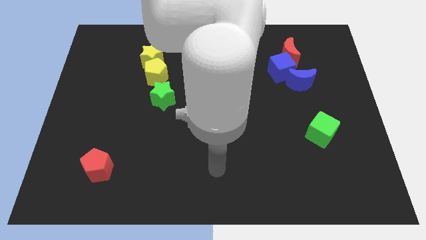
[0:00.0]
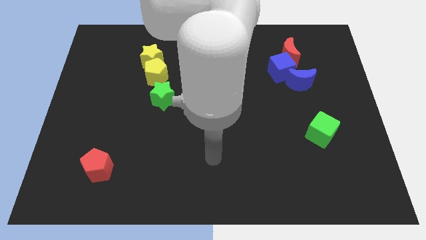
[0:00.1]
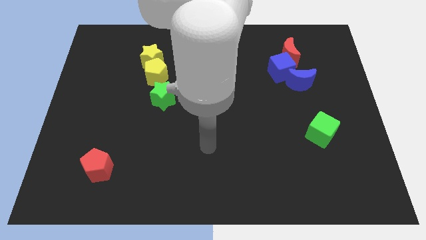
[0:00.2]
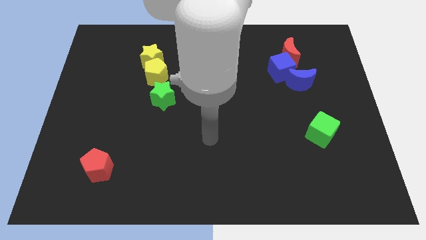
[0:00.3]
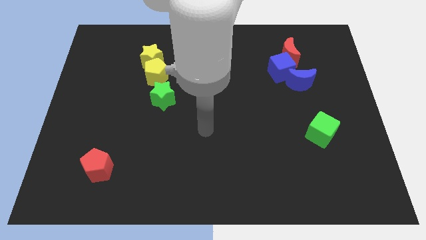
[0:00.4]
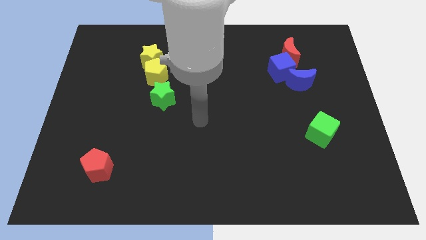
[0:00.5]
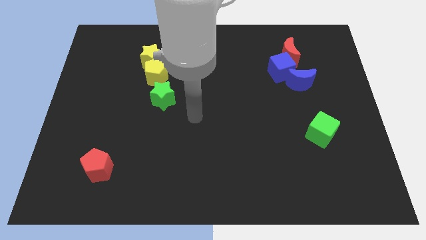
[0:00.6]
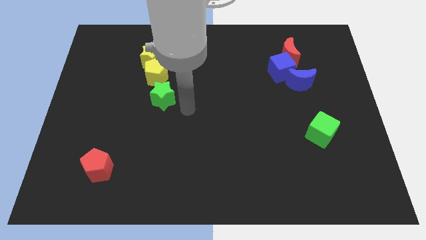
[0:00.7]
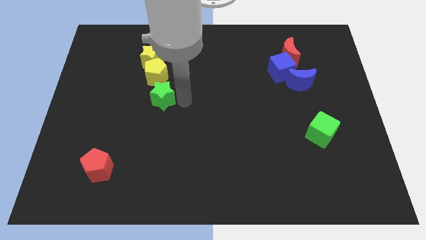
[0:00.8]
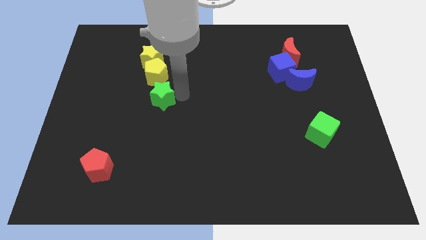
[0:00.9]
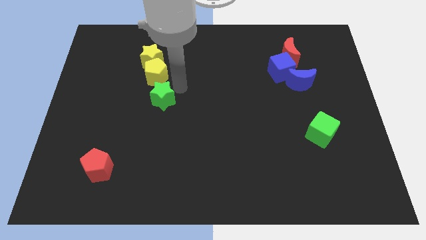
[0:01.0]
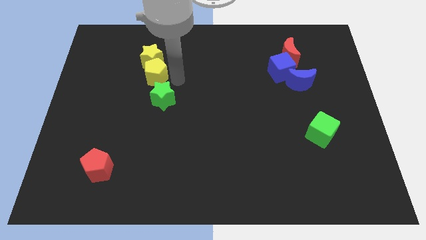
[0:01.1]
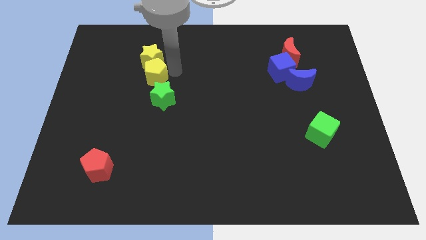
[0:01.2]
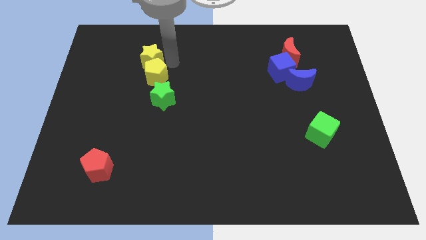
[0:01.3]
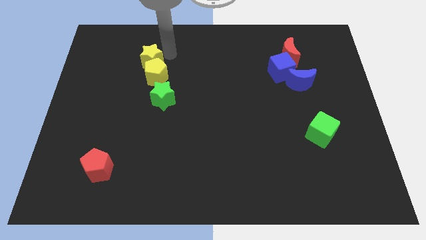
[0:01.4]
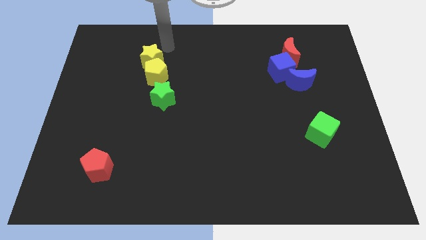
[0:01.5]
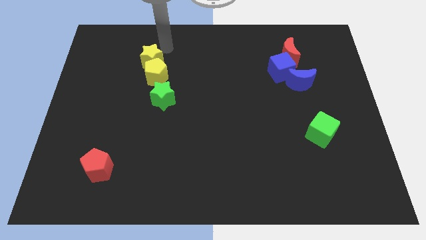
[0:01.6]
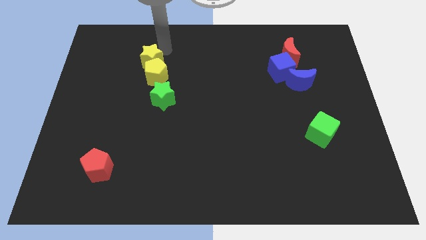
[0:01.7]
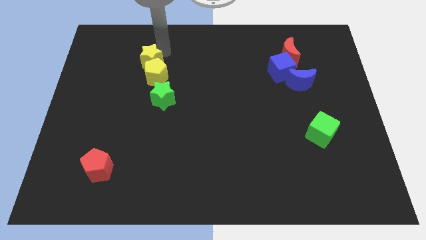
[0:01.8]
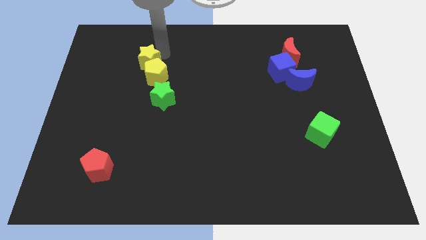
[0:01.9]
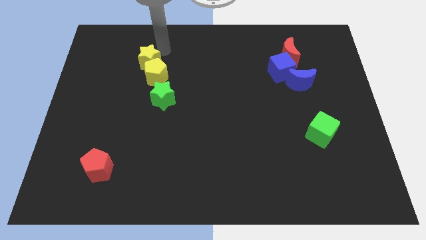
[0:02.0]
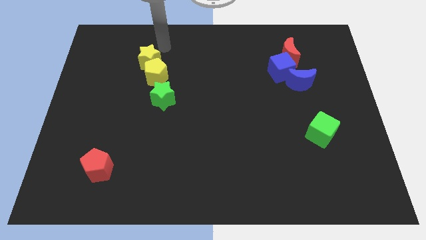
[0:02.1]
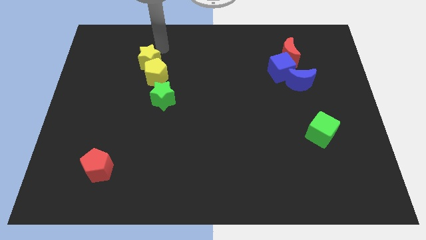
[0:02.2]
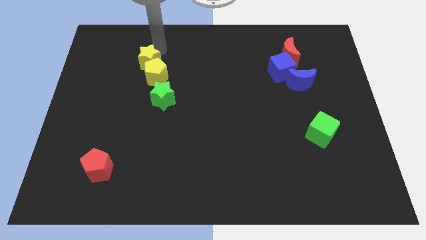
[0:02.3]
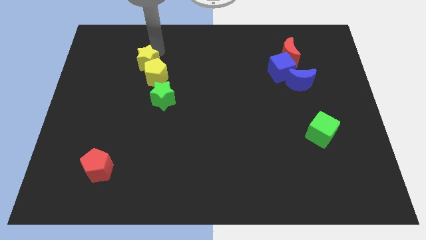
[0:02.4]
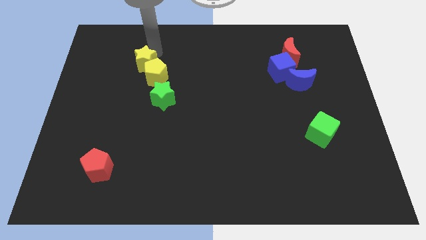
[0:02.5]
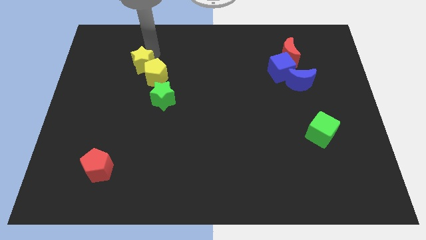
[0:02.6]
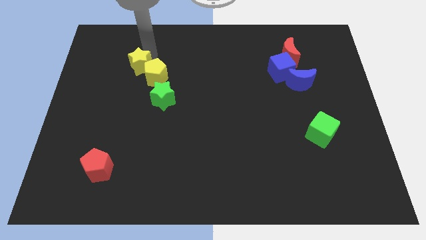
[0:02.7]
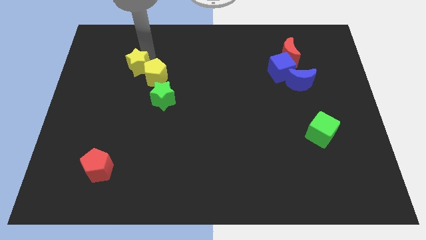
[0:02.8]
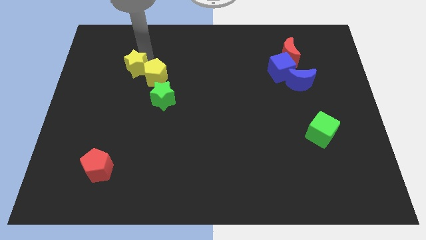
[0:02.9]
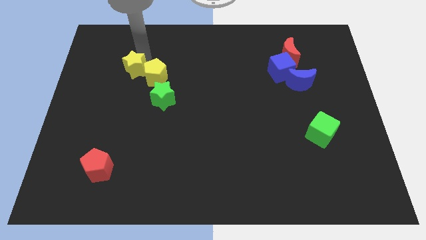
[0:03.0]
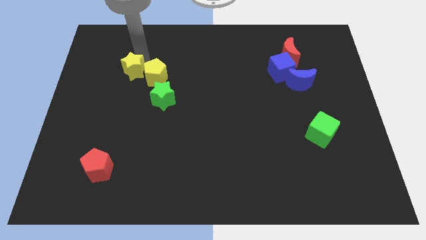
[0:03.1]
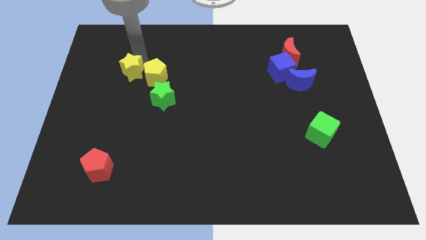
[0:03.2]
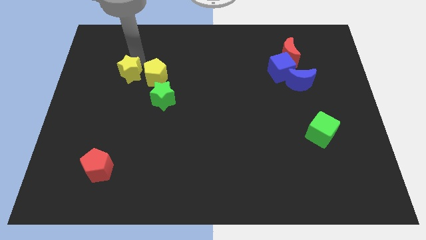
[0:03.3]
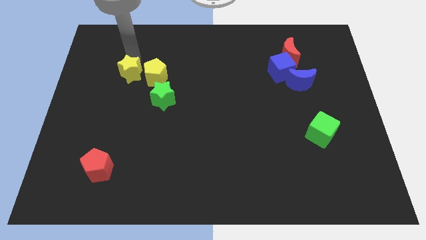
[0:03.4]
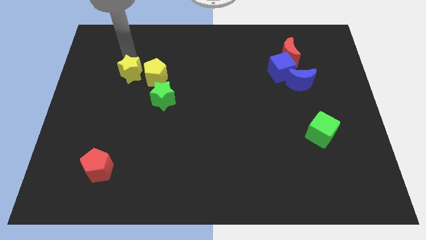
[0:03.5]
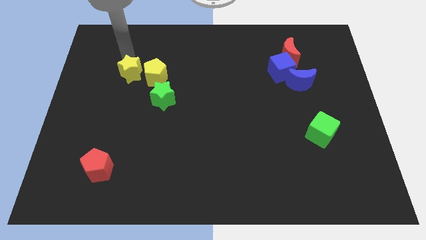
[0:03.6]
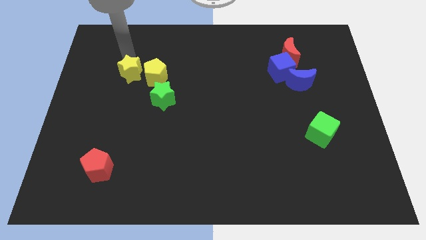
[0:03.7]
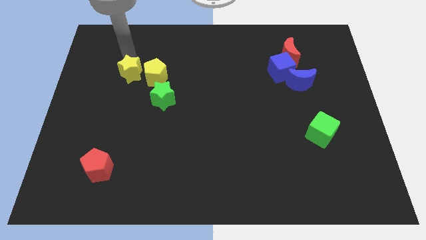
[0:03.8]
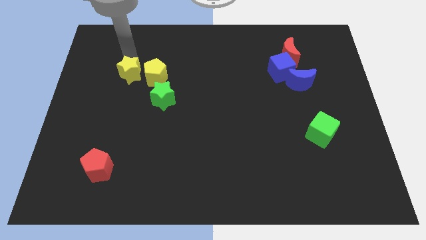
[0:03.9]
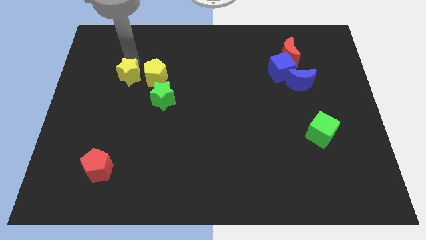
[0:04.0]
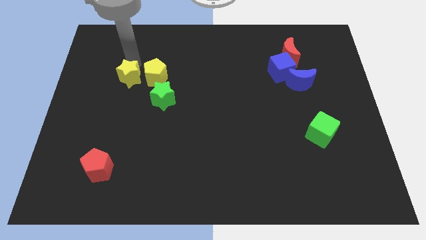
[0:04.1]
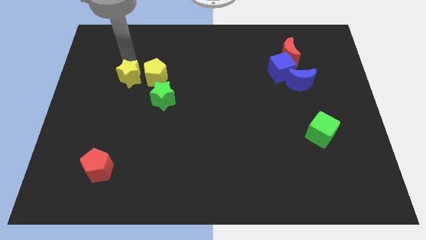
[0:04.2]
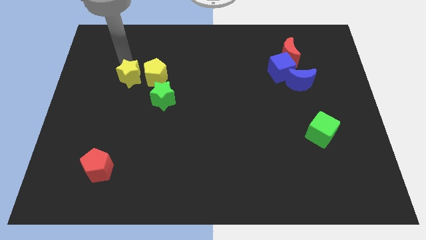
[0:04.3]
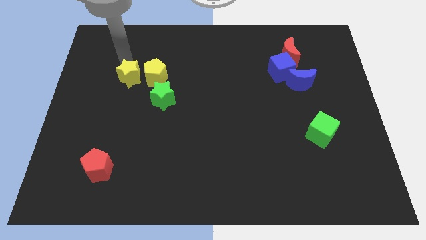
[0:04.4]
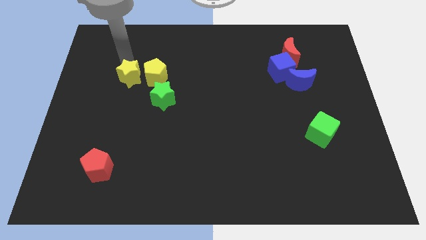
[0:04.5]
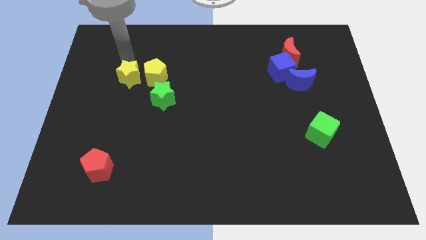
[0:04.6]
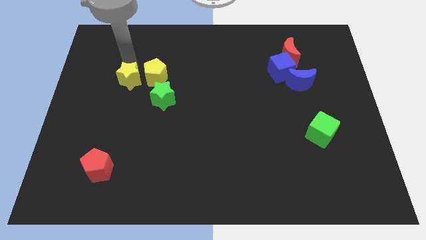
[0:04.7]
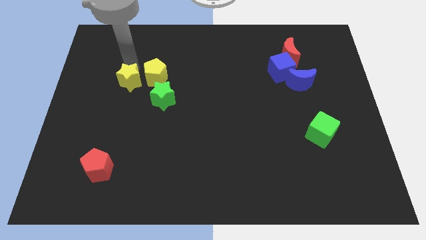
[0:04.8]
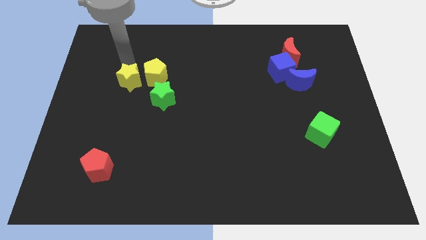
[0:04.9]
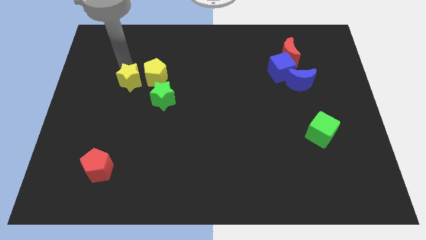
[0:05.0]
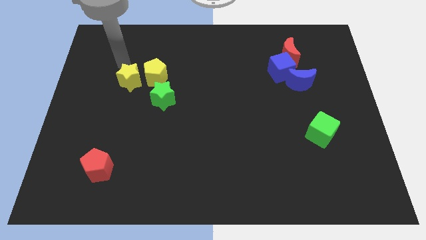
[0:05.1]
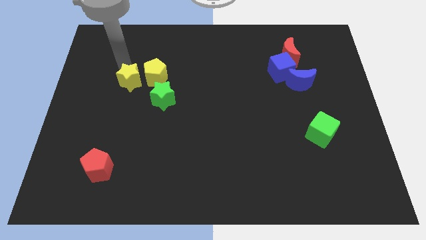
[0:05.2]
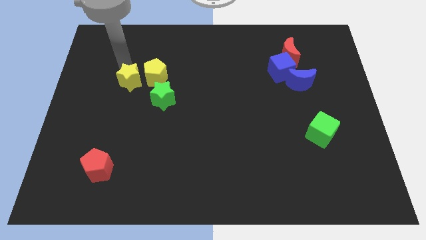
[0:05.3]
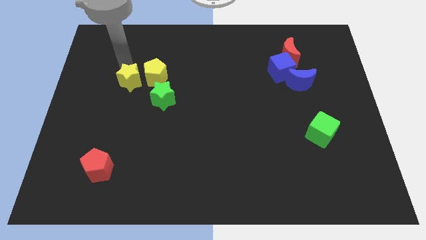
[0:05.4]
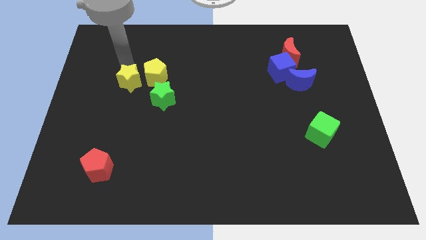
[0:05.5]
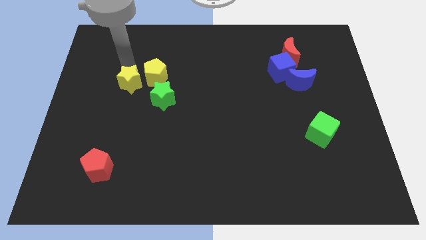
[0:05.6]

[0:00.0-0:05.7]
move the yellow star a little bit downwards

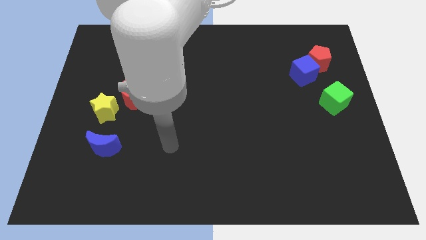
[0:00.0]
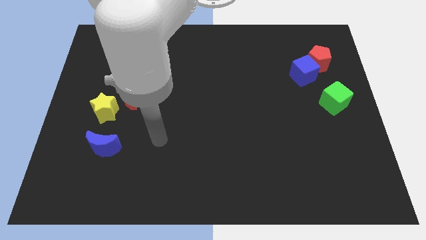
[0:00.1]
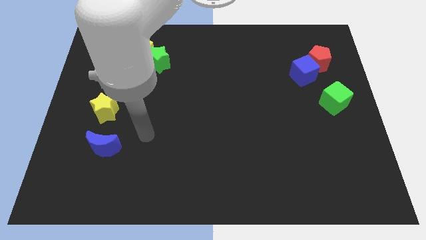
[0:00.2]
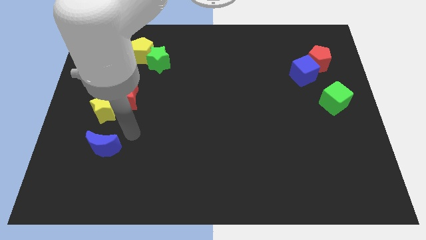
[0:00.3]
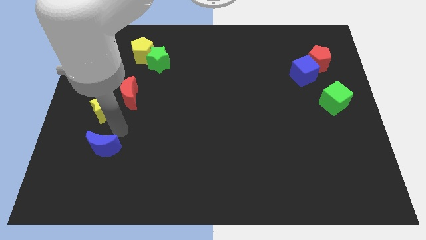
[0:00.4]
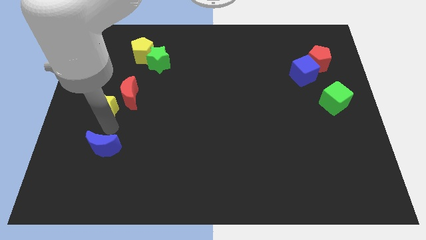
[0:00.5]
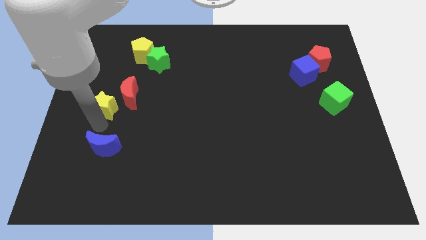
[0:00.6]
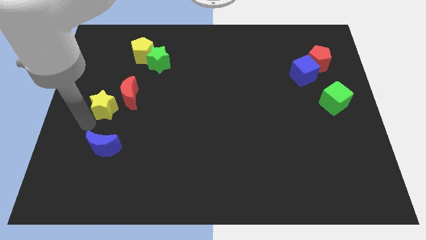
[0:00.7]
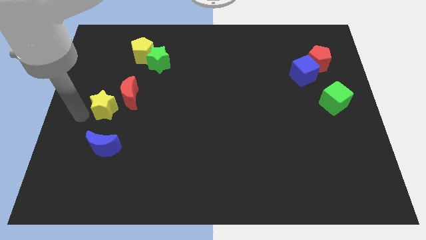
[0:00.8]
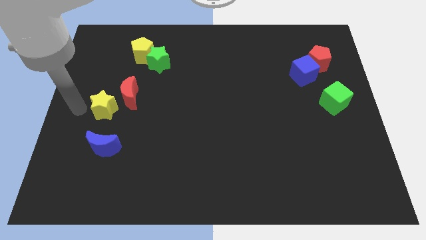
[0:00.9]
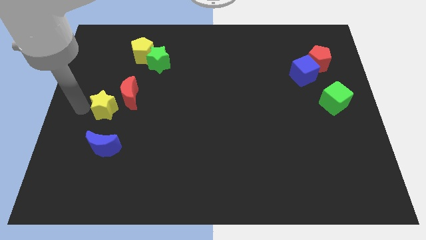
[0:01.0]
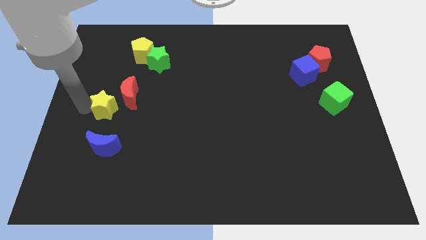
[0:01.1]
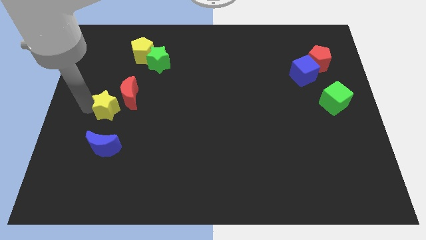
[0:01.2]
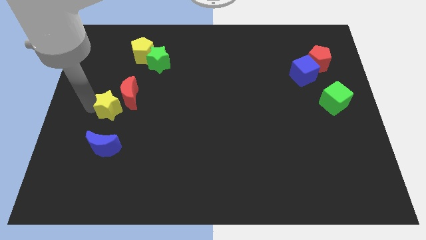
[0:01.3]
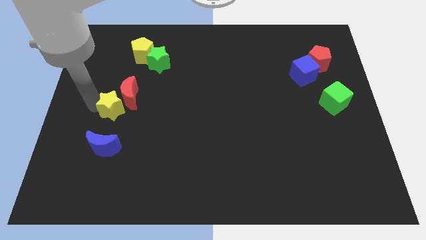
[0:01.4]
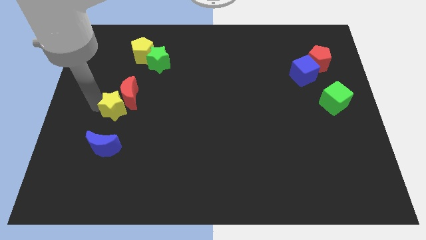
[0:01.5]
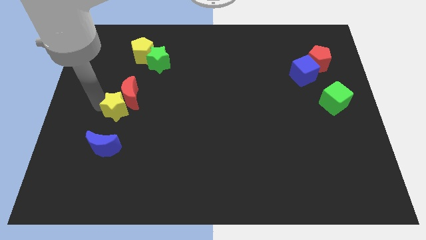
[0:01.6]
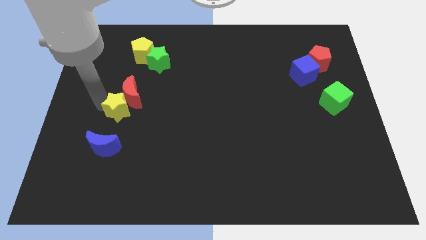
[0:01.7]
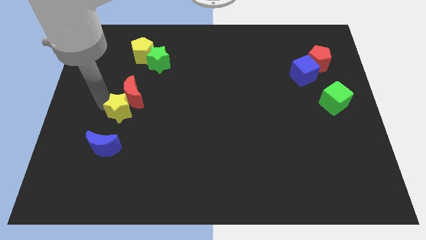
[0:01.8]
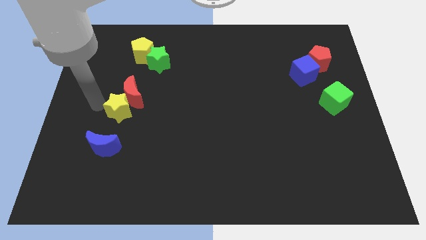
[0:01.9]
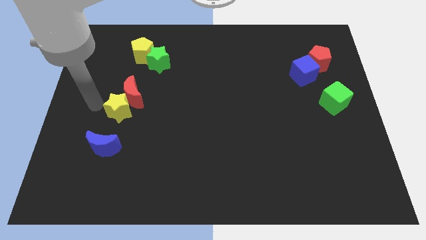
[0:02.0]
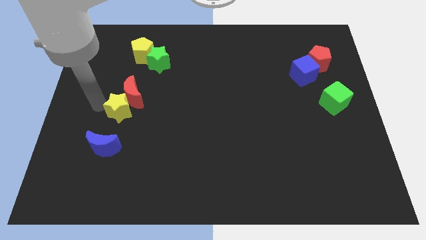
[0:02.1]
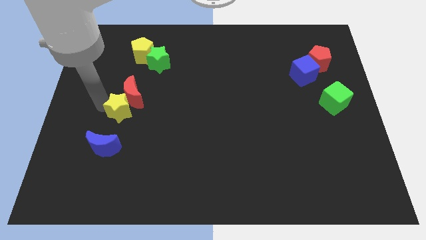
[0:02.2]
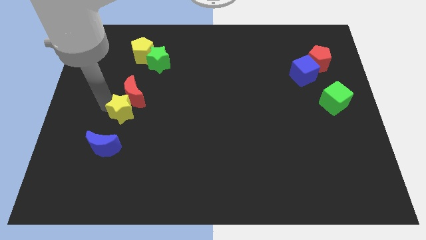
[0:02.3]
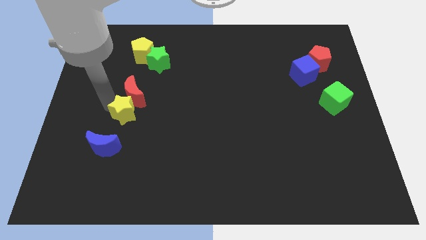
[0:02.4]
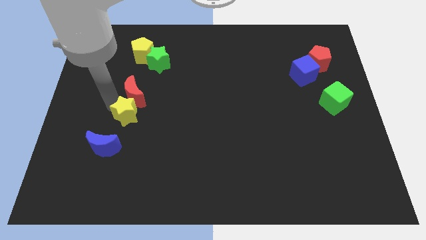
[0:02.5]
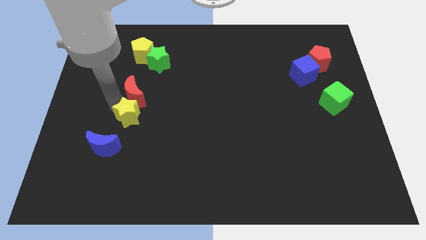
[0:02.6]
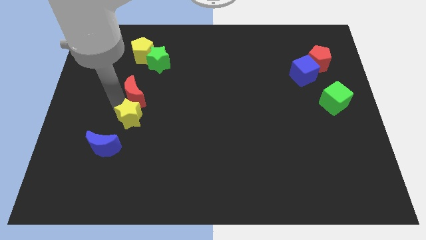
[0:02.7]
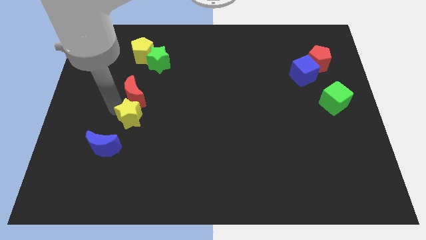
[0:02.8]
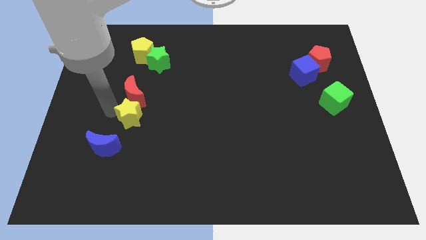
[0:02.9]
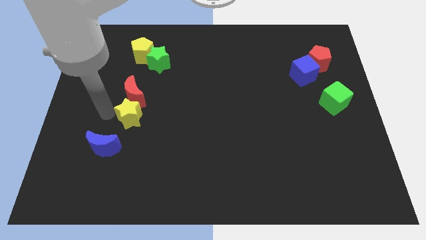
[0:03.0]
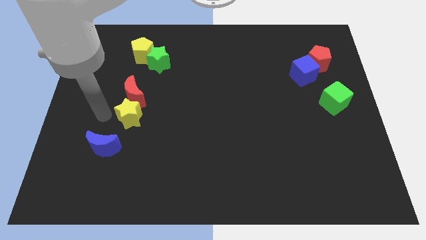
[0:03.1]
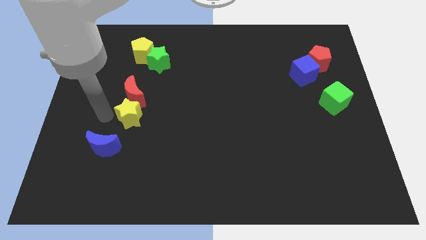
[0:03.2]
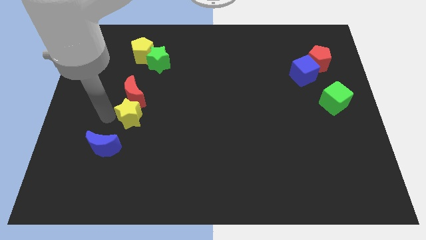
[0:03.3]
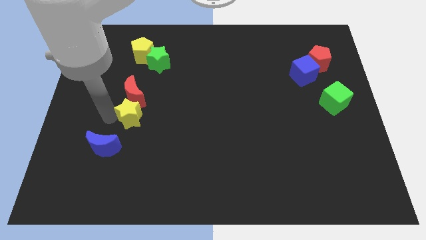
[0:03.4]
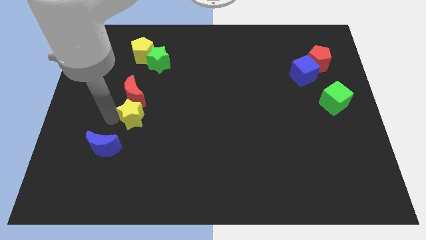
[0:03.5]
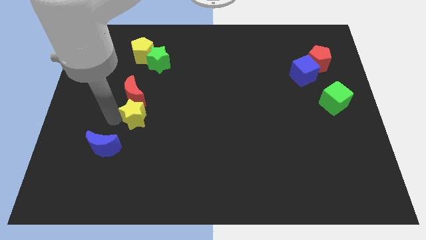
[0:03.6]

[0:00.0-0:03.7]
move the yellow star a bit to the right
